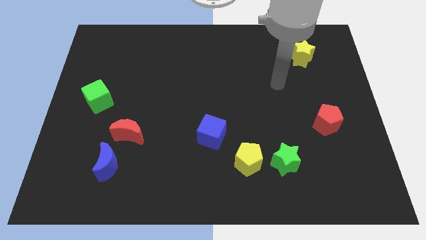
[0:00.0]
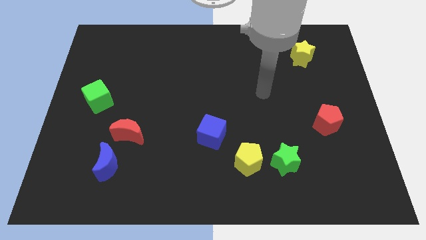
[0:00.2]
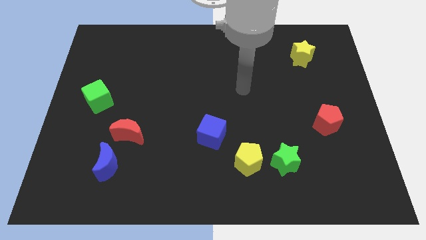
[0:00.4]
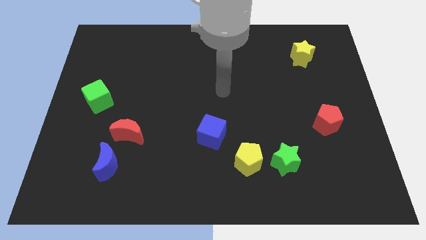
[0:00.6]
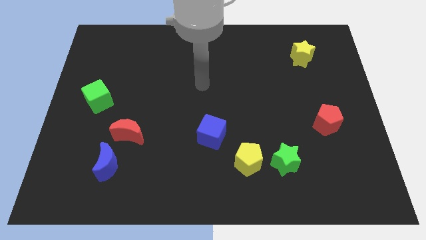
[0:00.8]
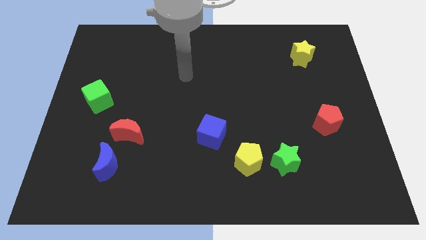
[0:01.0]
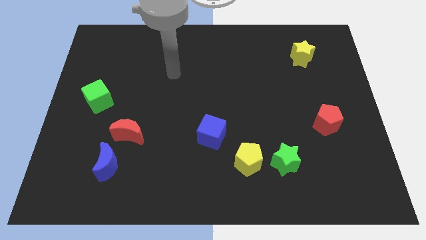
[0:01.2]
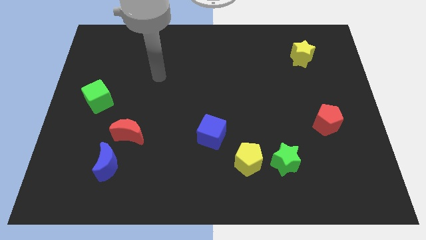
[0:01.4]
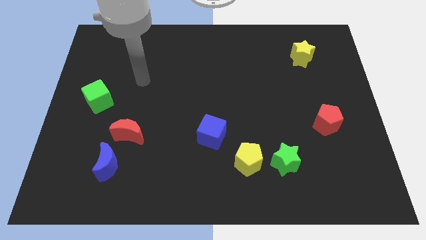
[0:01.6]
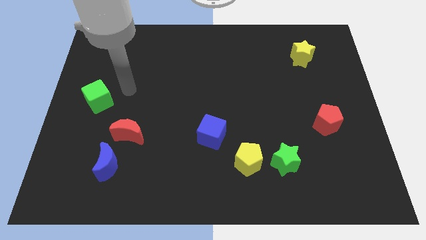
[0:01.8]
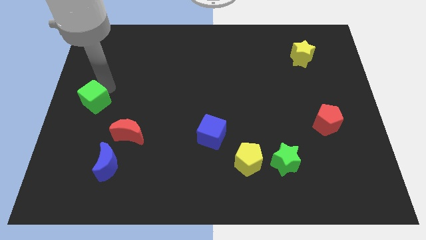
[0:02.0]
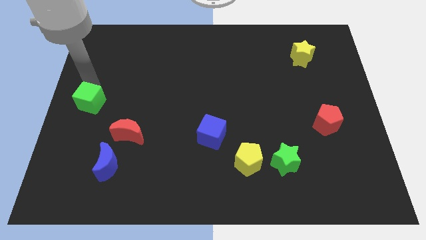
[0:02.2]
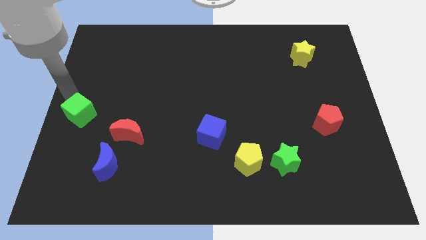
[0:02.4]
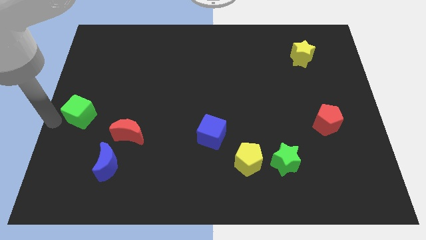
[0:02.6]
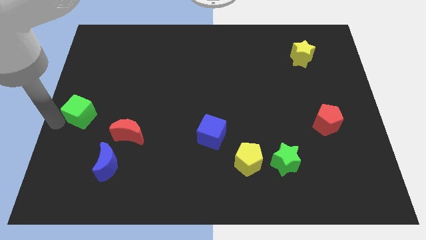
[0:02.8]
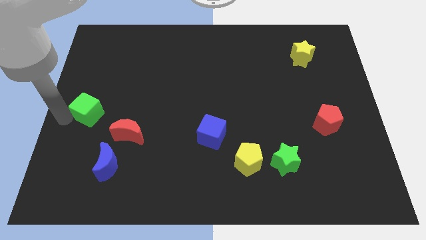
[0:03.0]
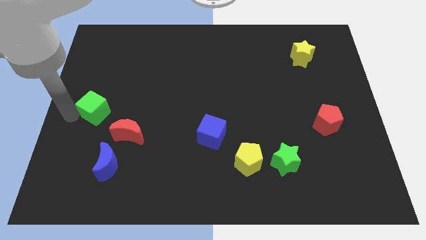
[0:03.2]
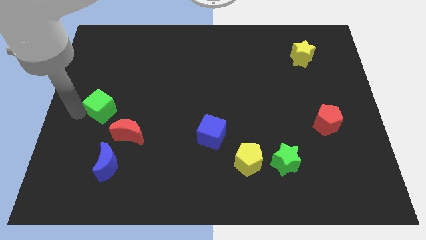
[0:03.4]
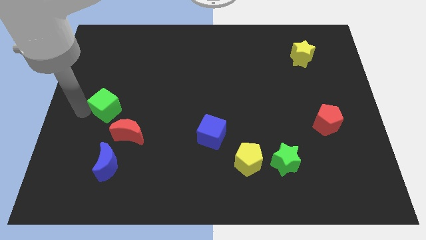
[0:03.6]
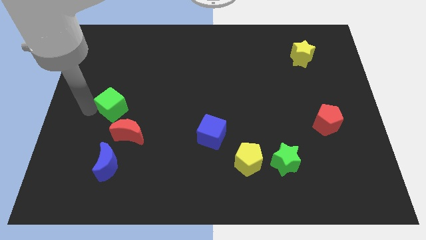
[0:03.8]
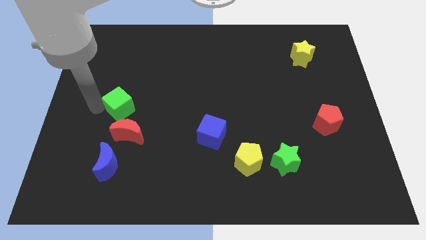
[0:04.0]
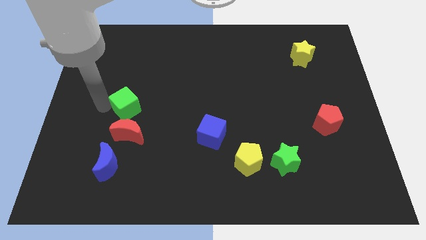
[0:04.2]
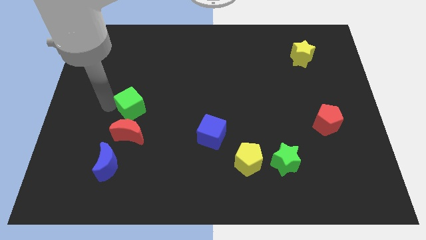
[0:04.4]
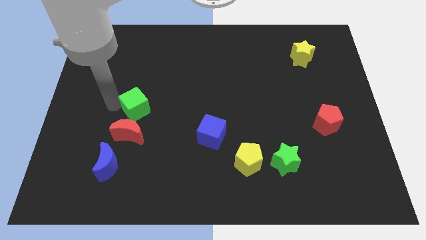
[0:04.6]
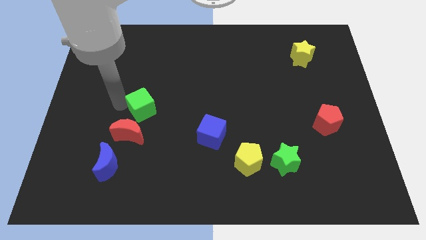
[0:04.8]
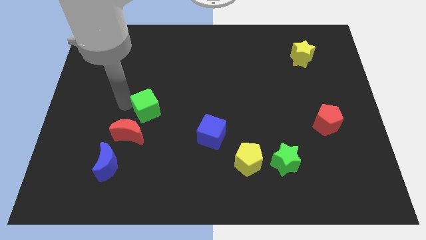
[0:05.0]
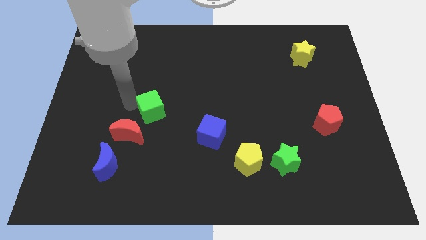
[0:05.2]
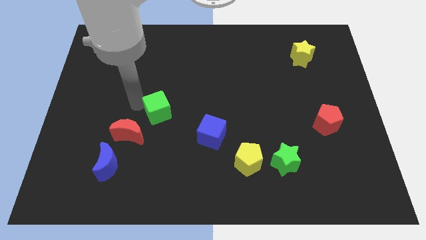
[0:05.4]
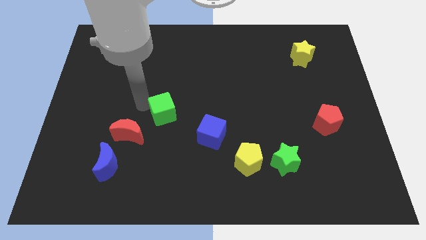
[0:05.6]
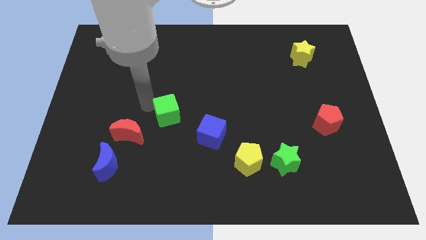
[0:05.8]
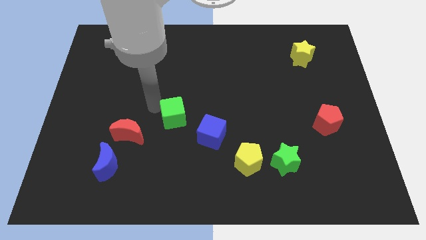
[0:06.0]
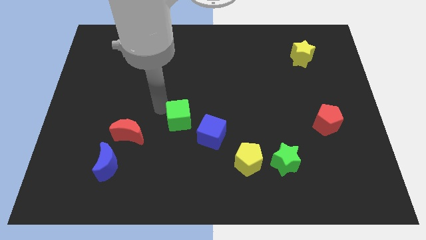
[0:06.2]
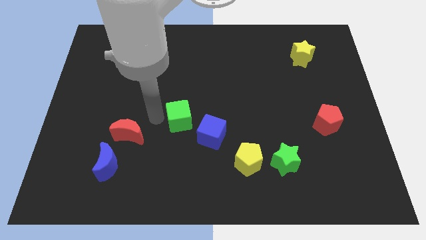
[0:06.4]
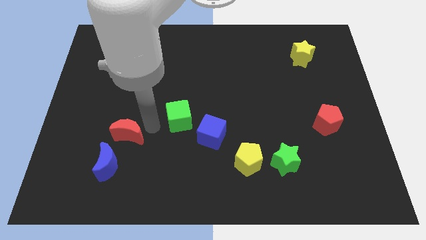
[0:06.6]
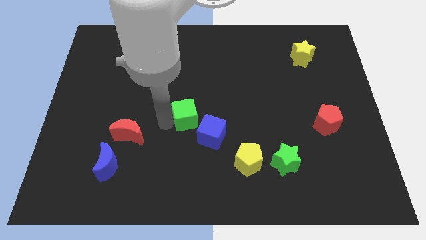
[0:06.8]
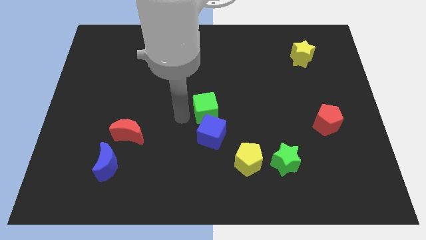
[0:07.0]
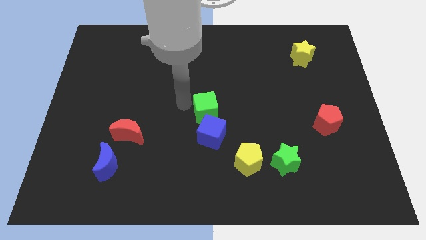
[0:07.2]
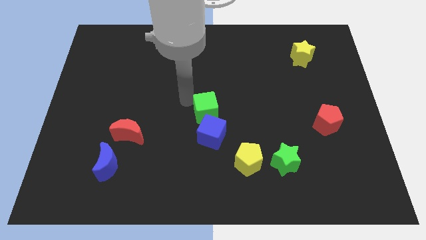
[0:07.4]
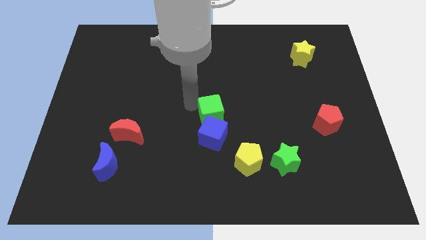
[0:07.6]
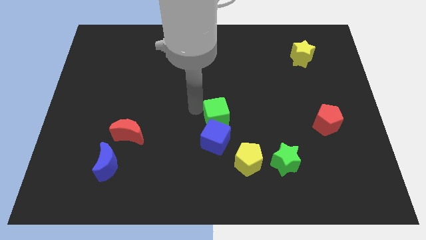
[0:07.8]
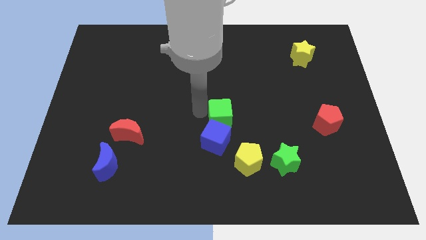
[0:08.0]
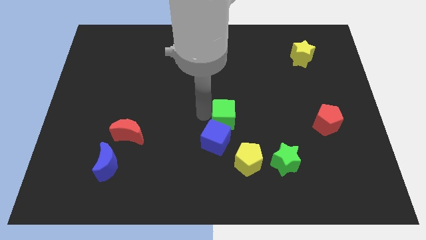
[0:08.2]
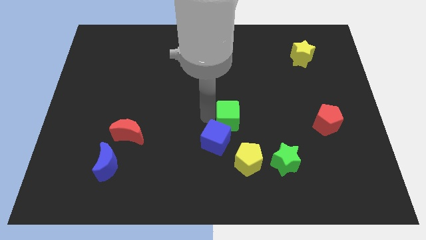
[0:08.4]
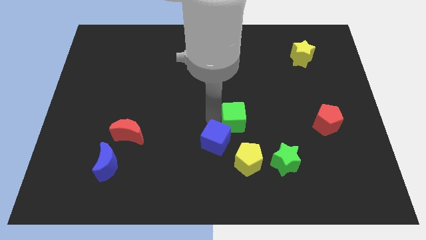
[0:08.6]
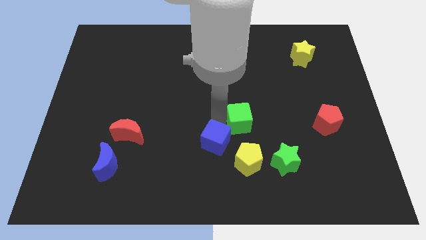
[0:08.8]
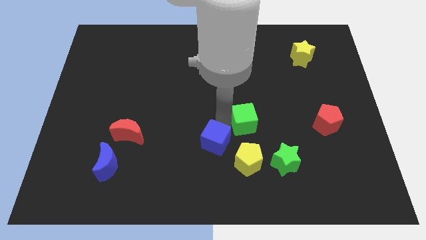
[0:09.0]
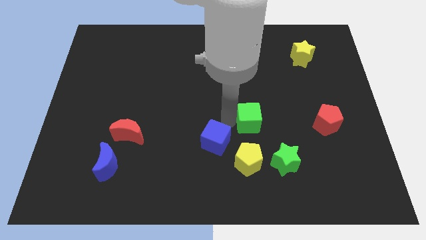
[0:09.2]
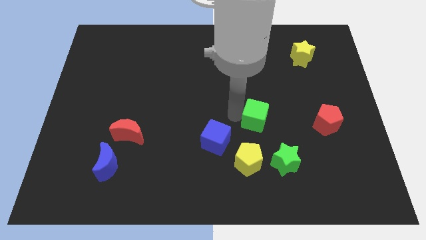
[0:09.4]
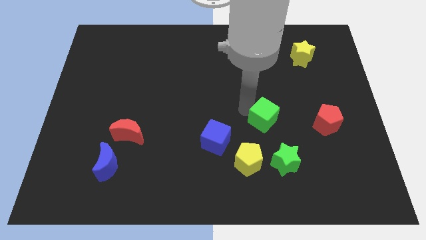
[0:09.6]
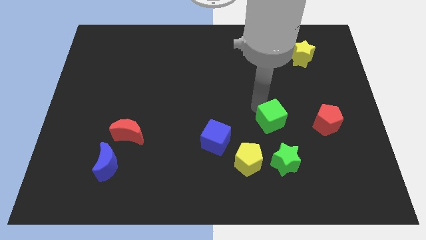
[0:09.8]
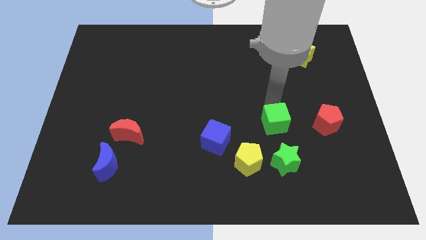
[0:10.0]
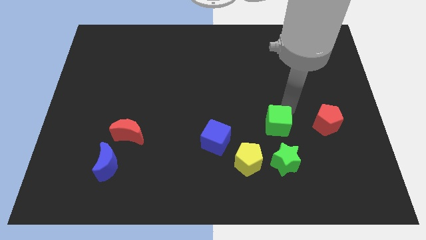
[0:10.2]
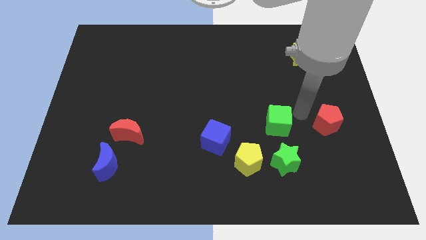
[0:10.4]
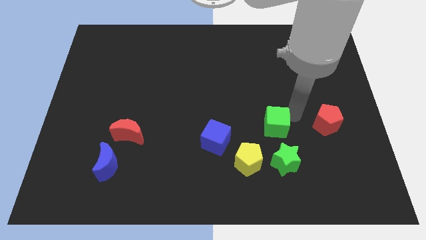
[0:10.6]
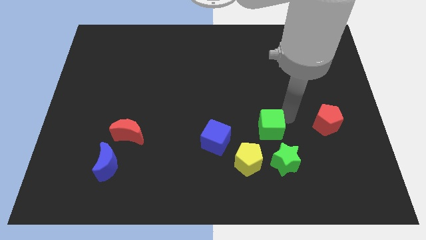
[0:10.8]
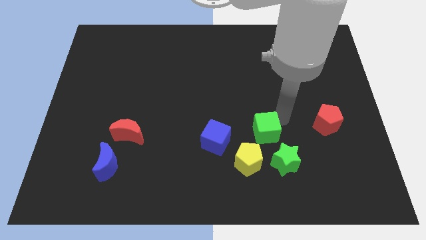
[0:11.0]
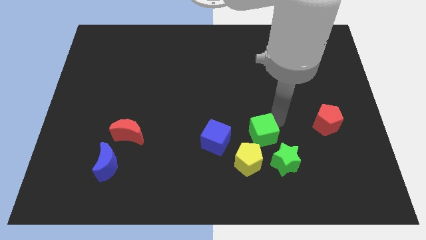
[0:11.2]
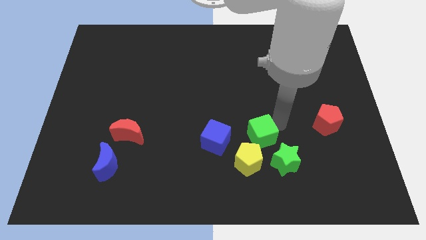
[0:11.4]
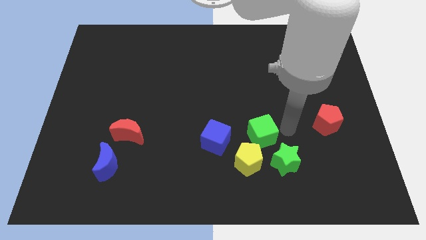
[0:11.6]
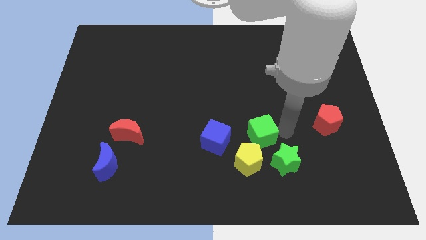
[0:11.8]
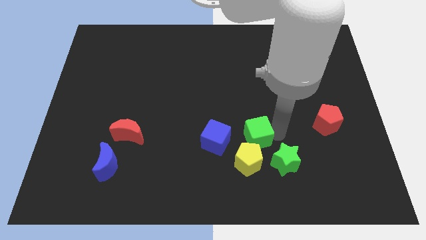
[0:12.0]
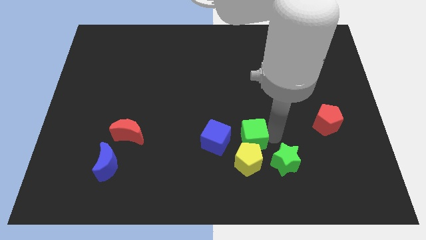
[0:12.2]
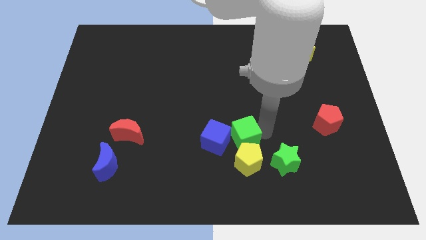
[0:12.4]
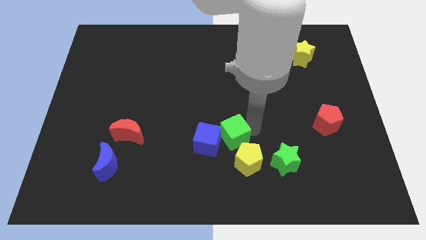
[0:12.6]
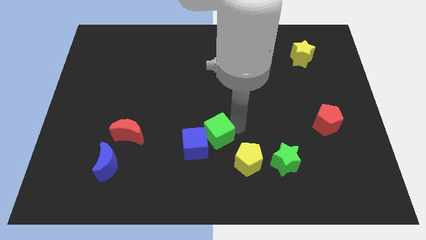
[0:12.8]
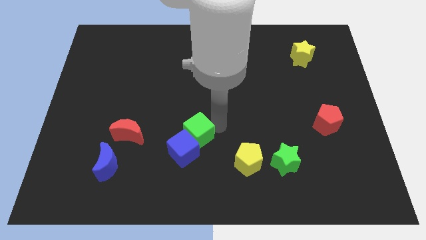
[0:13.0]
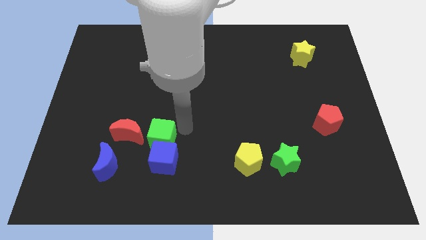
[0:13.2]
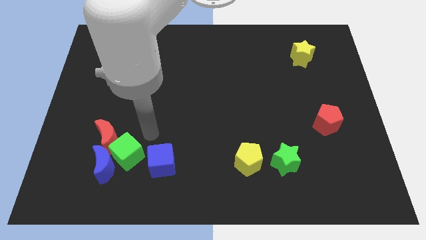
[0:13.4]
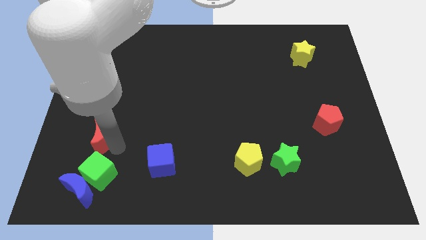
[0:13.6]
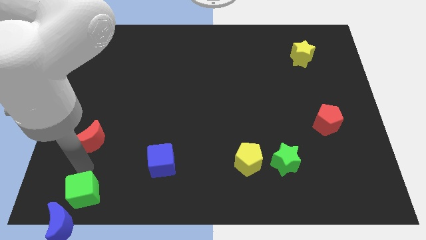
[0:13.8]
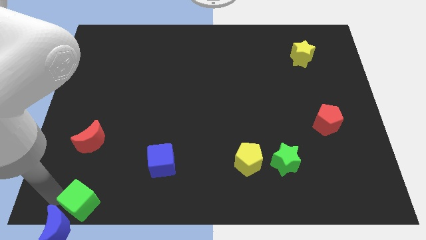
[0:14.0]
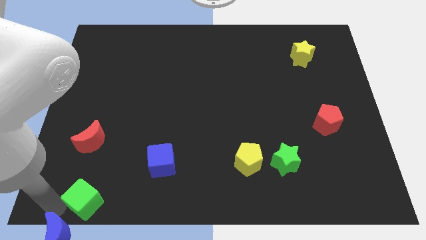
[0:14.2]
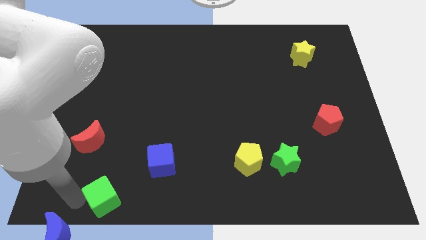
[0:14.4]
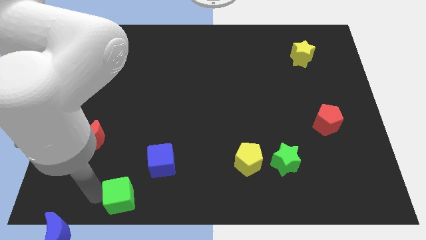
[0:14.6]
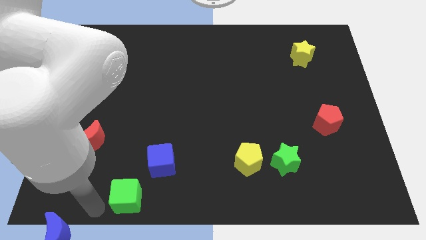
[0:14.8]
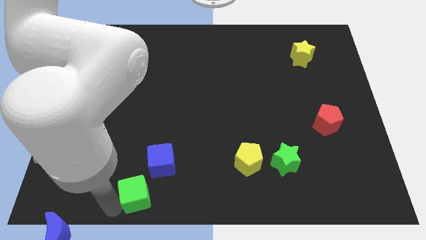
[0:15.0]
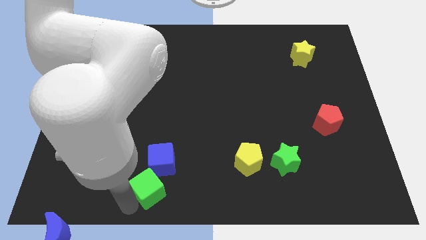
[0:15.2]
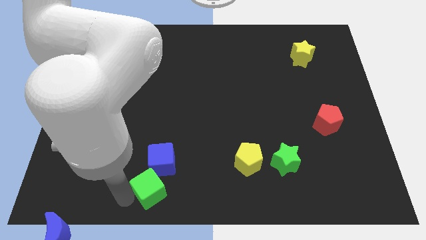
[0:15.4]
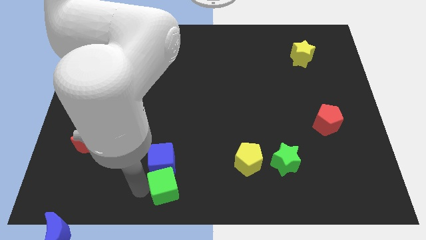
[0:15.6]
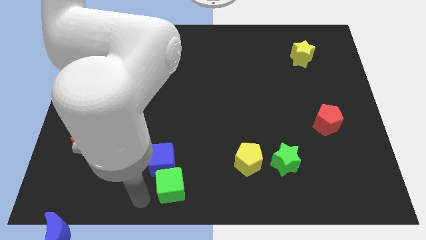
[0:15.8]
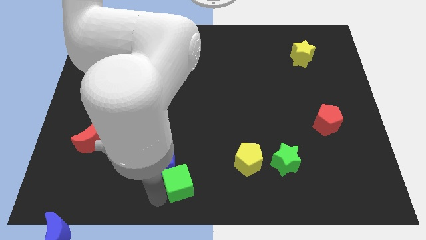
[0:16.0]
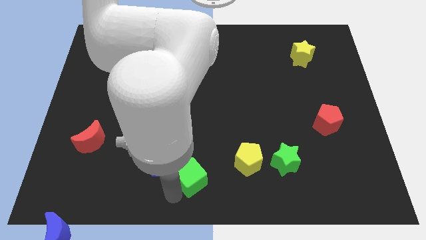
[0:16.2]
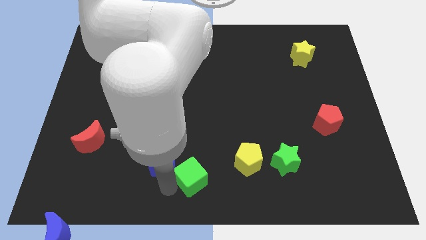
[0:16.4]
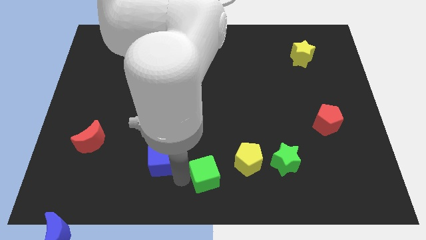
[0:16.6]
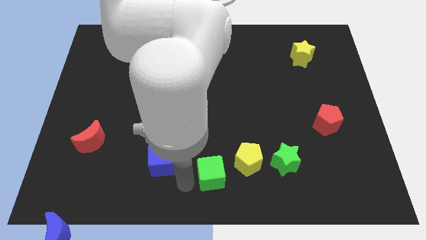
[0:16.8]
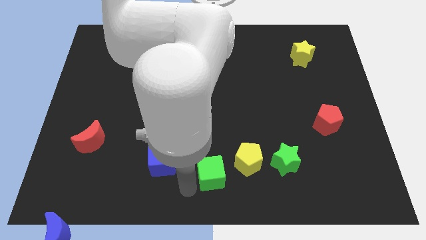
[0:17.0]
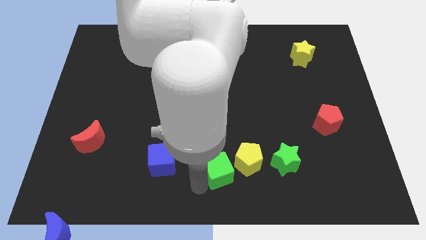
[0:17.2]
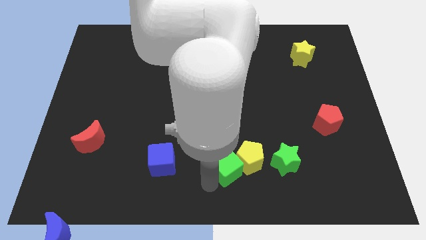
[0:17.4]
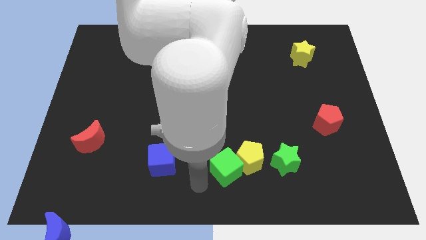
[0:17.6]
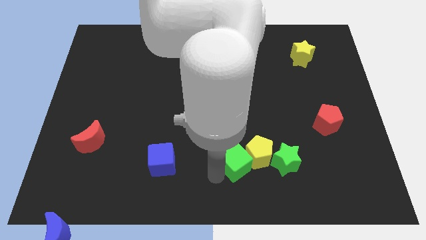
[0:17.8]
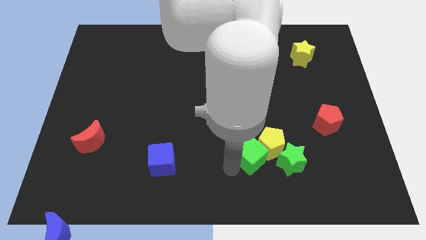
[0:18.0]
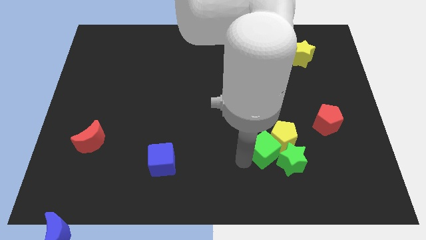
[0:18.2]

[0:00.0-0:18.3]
put the green cube close to the green star
